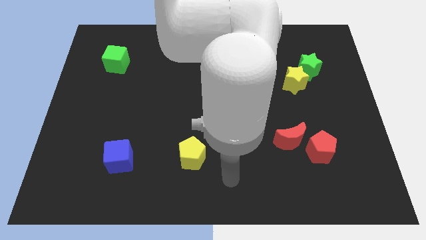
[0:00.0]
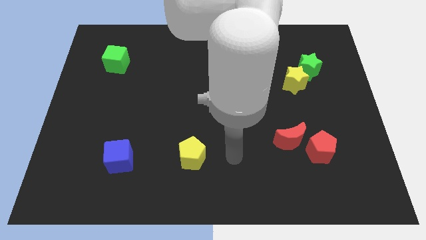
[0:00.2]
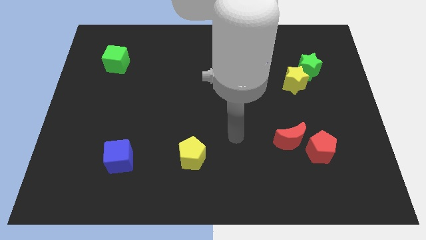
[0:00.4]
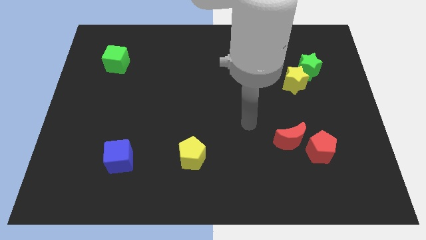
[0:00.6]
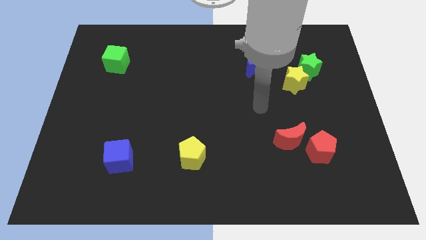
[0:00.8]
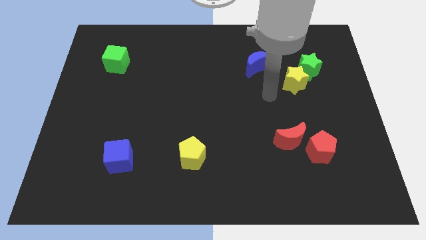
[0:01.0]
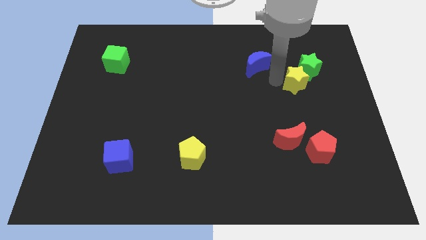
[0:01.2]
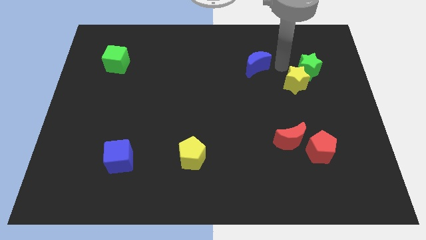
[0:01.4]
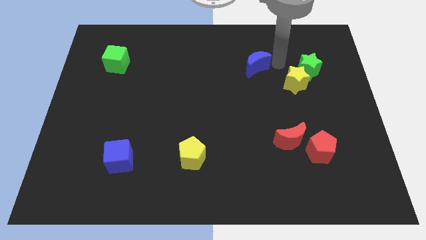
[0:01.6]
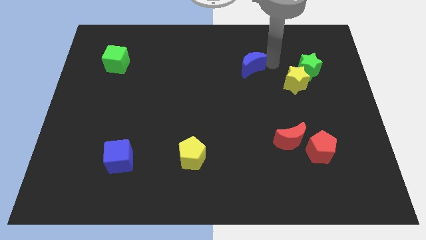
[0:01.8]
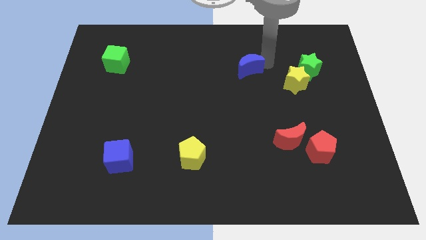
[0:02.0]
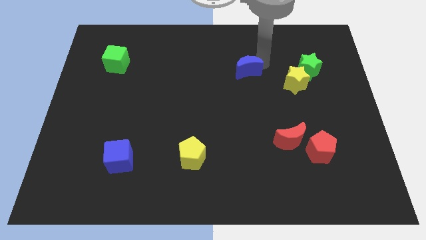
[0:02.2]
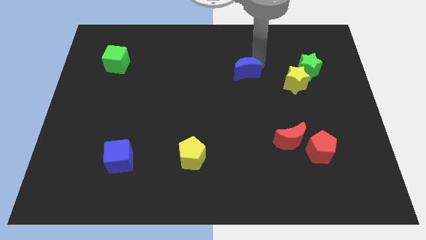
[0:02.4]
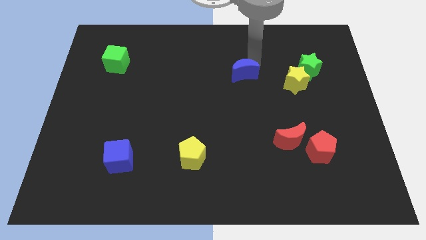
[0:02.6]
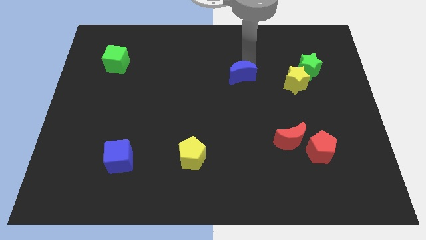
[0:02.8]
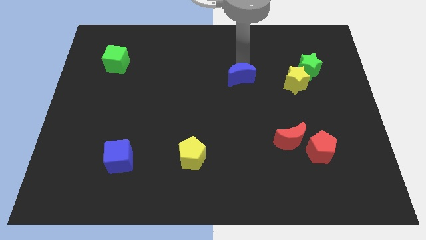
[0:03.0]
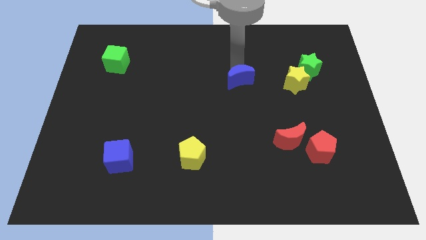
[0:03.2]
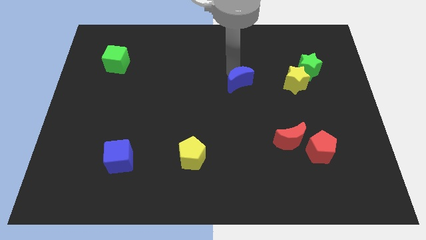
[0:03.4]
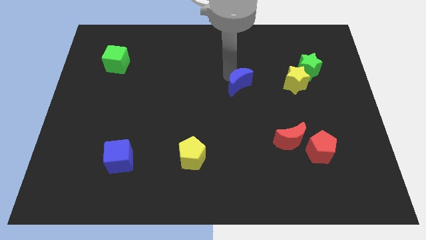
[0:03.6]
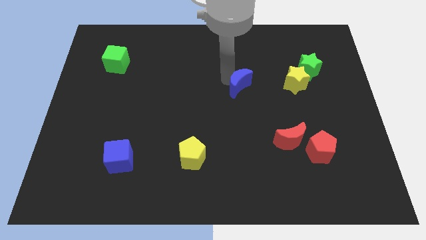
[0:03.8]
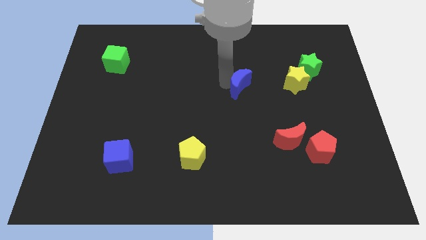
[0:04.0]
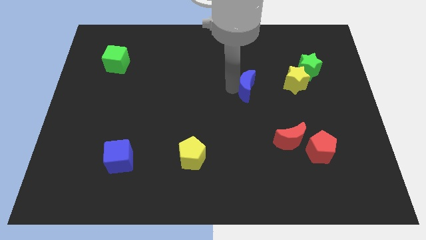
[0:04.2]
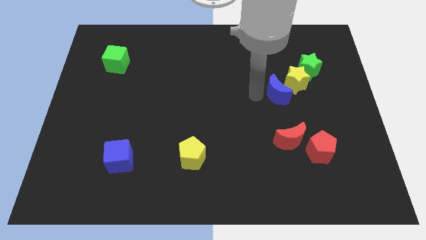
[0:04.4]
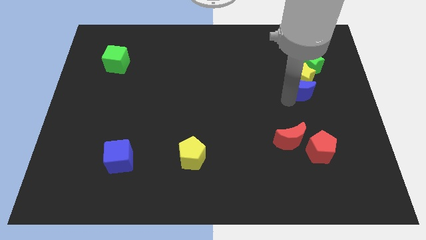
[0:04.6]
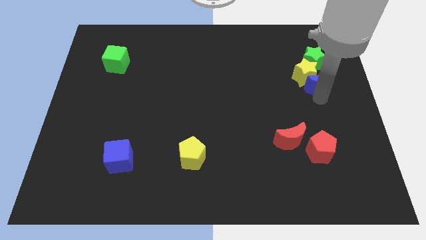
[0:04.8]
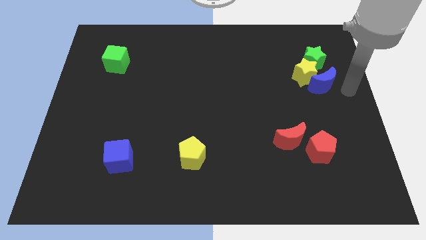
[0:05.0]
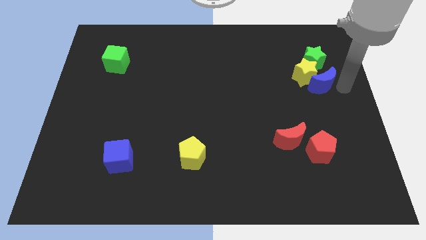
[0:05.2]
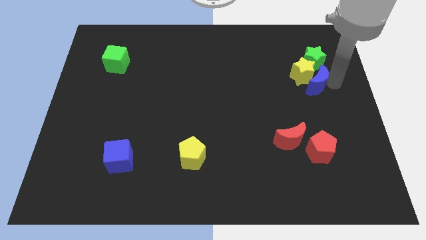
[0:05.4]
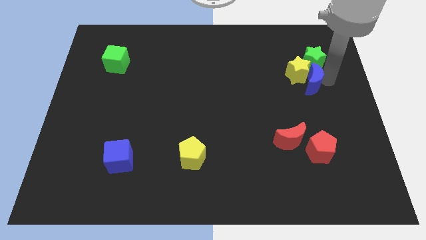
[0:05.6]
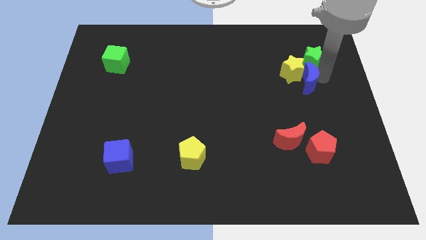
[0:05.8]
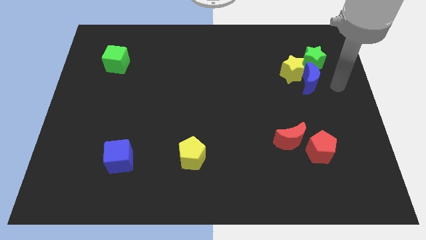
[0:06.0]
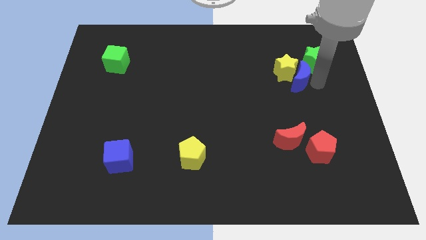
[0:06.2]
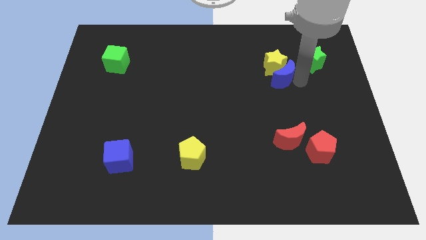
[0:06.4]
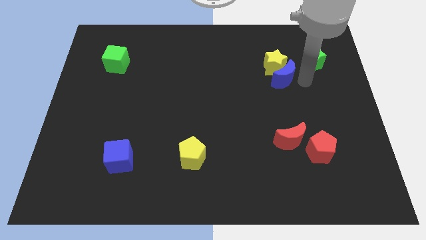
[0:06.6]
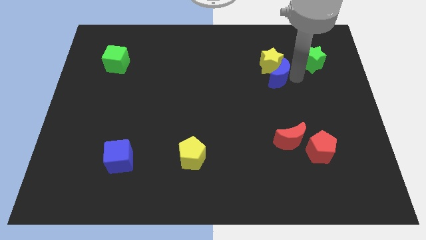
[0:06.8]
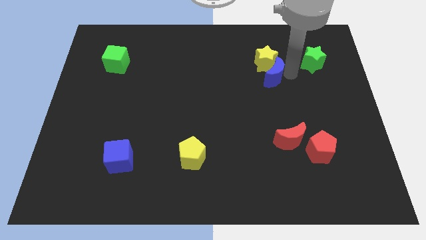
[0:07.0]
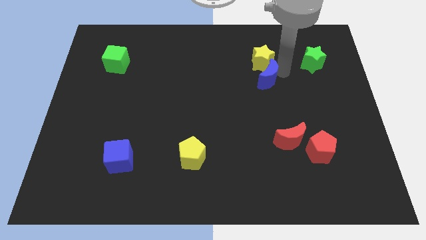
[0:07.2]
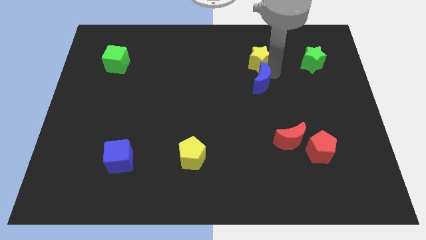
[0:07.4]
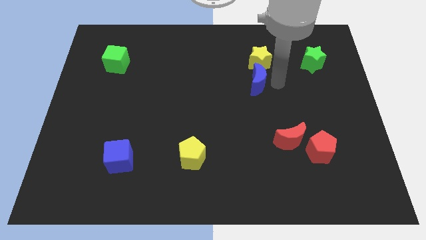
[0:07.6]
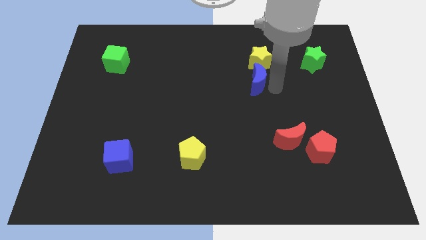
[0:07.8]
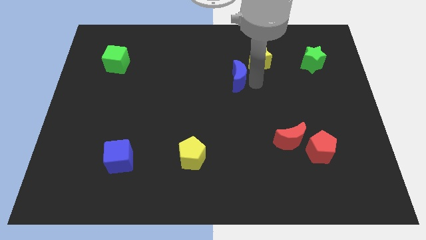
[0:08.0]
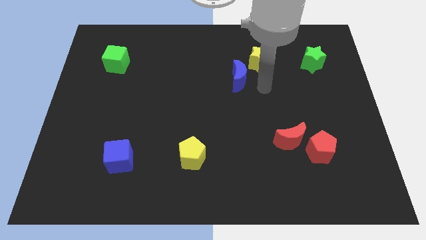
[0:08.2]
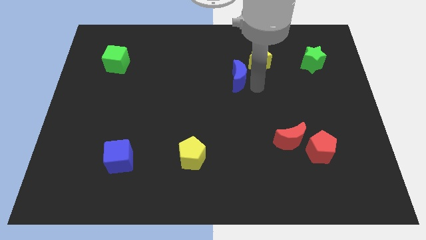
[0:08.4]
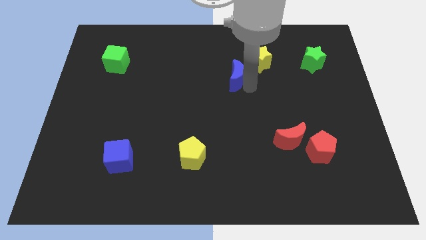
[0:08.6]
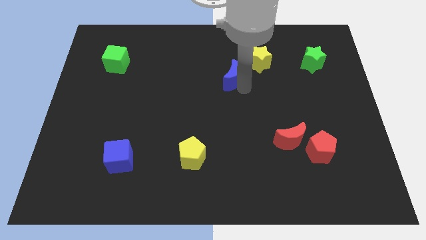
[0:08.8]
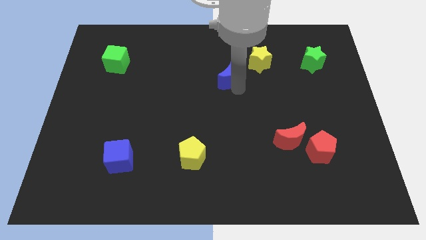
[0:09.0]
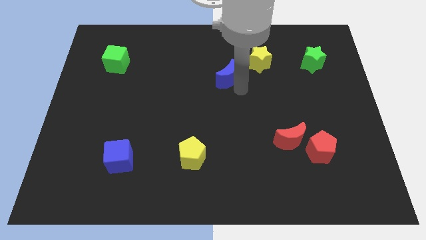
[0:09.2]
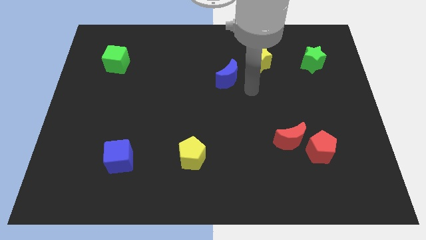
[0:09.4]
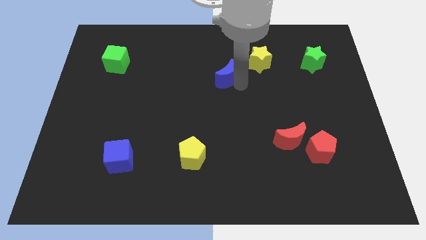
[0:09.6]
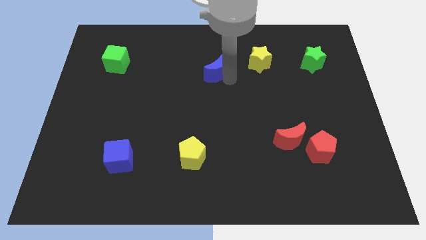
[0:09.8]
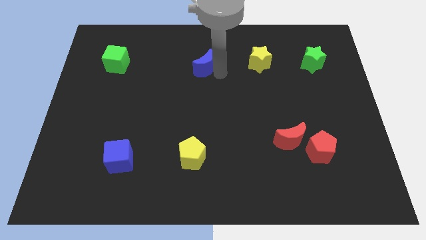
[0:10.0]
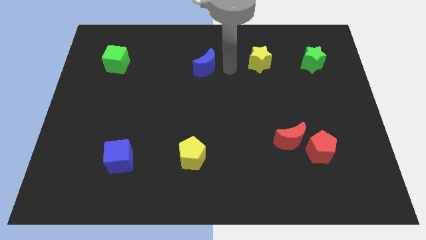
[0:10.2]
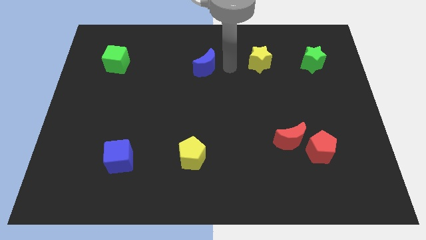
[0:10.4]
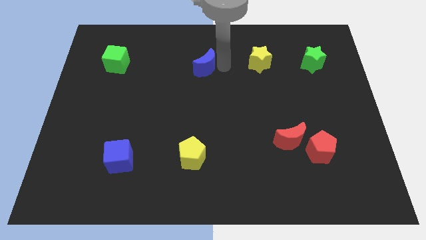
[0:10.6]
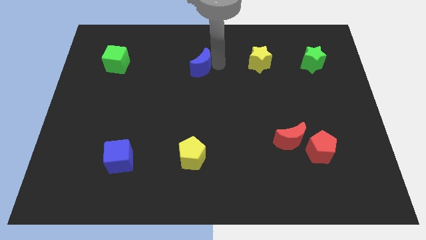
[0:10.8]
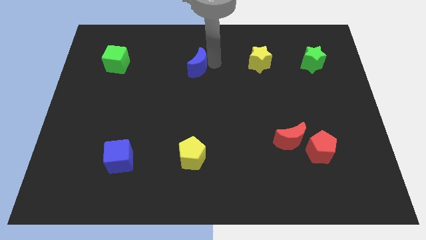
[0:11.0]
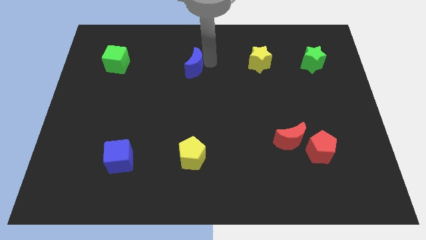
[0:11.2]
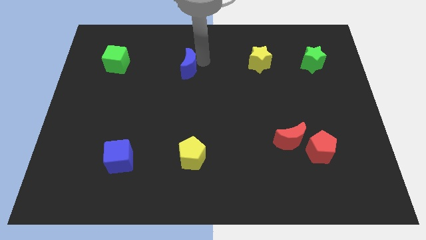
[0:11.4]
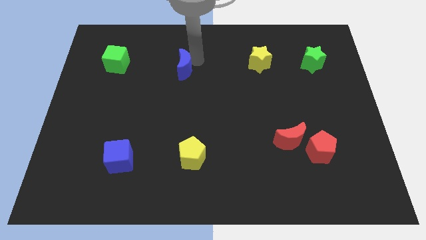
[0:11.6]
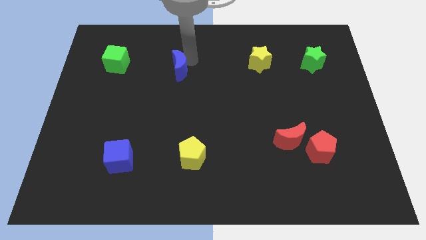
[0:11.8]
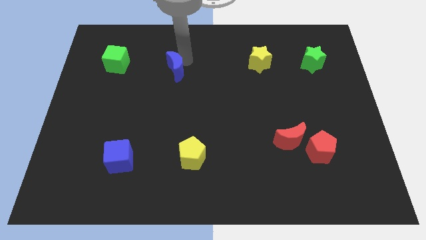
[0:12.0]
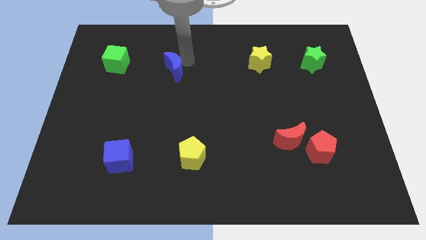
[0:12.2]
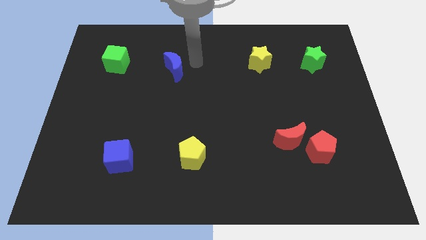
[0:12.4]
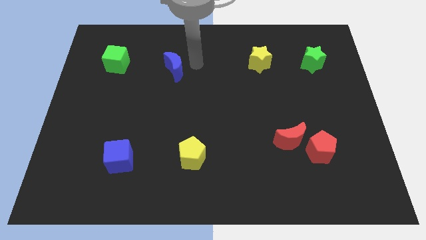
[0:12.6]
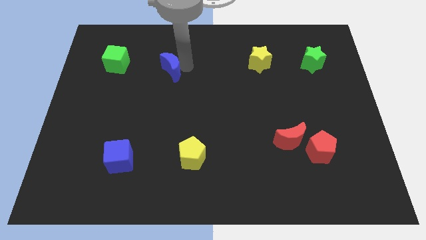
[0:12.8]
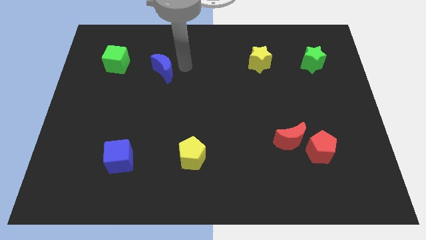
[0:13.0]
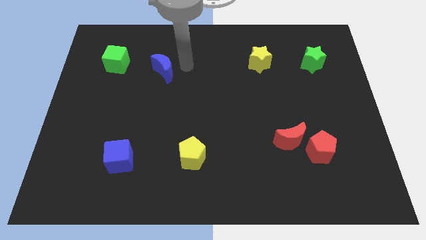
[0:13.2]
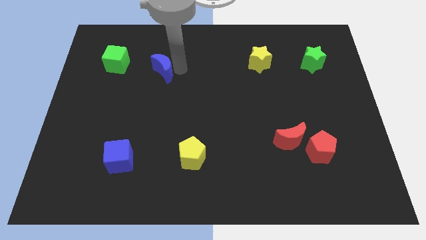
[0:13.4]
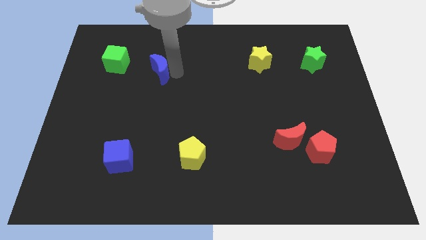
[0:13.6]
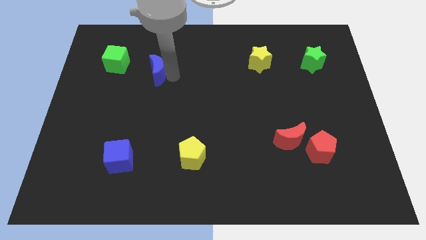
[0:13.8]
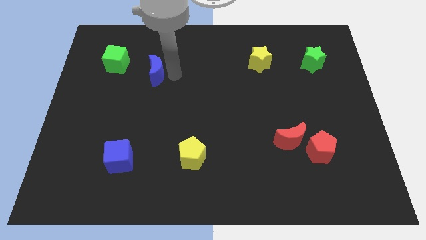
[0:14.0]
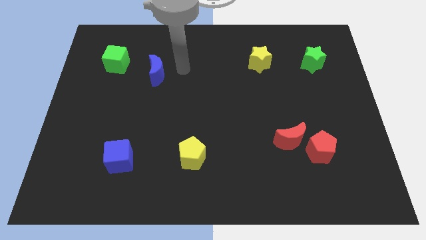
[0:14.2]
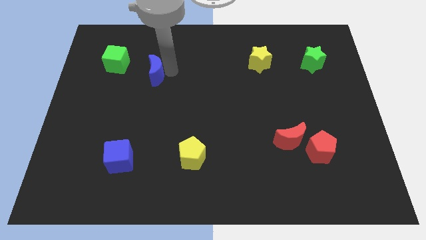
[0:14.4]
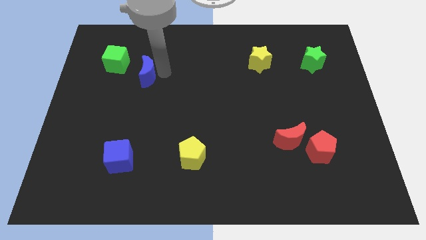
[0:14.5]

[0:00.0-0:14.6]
move the blue moon to the bottom right side of the green cube

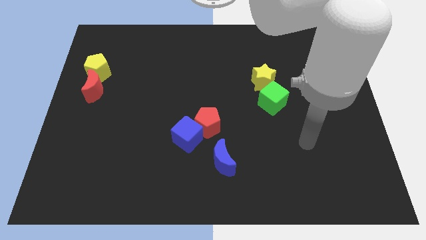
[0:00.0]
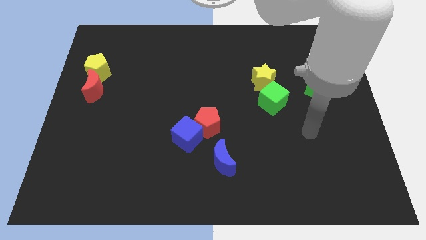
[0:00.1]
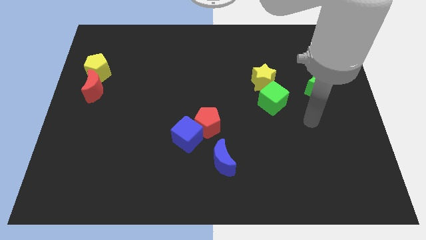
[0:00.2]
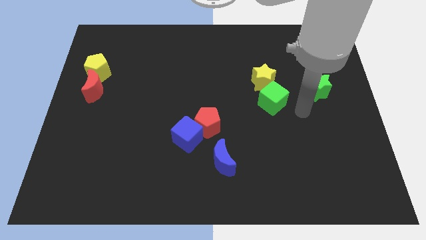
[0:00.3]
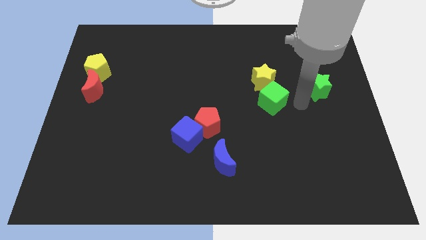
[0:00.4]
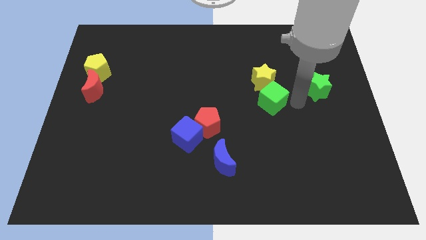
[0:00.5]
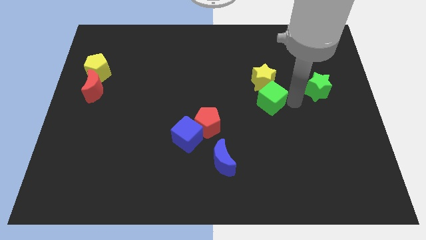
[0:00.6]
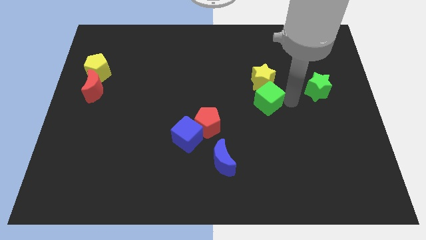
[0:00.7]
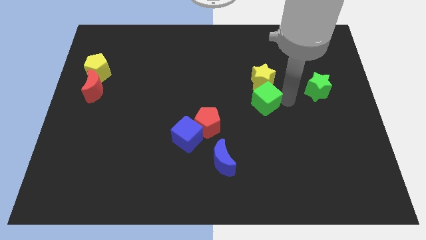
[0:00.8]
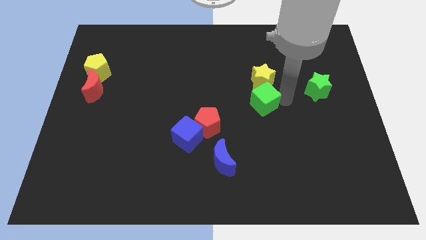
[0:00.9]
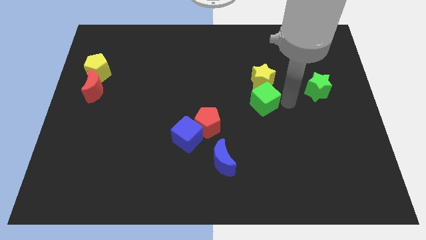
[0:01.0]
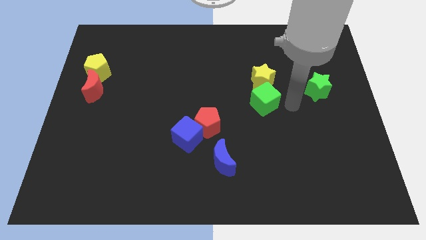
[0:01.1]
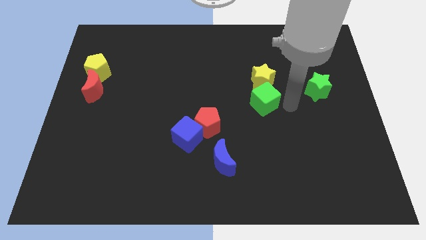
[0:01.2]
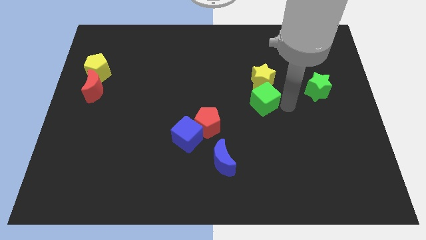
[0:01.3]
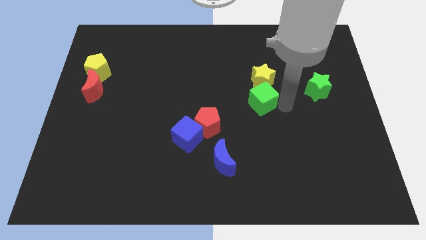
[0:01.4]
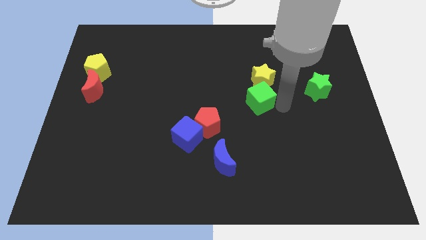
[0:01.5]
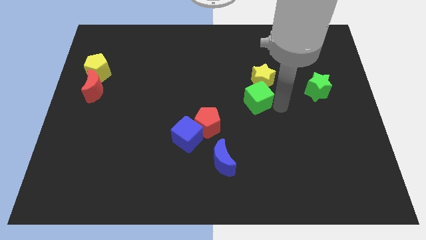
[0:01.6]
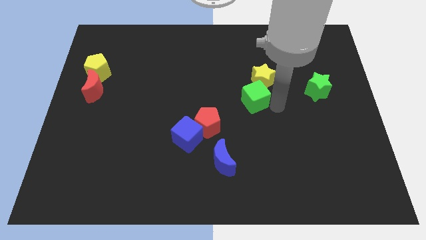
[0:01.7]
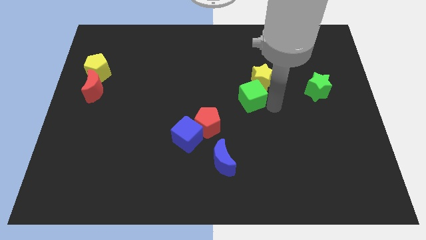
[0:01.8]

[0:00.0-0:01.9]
push the green cube to the top right side of the red pentagon
